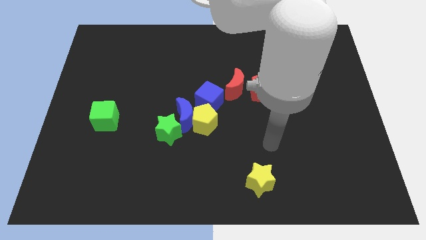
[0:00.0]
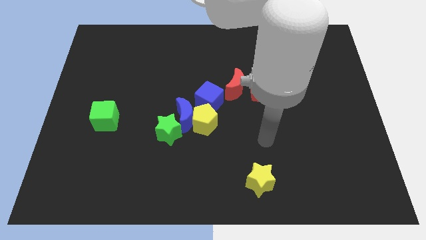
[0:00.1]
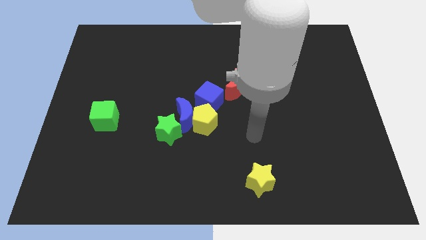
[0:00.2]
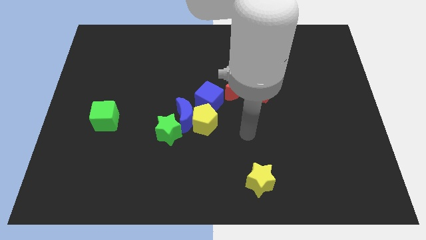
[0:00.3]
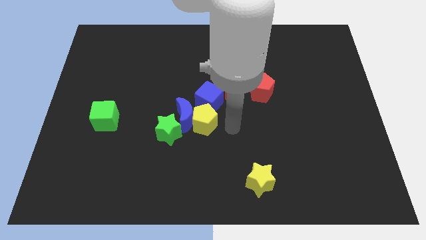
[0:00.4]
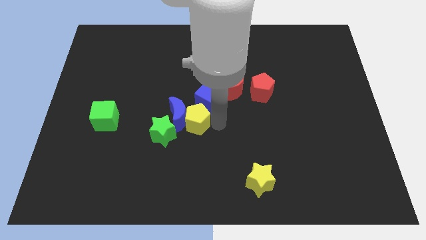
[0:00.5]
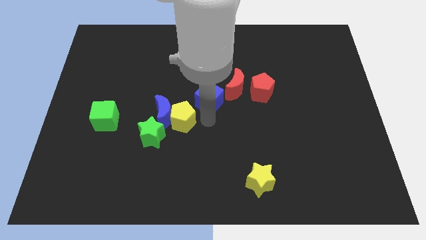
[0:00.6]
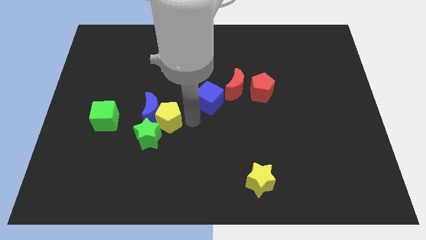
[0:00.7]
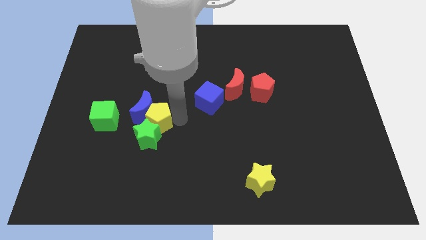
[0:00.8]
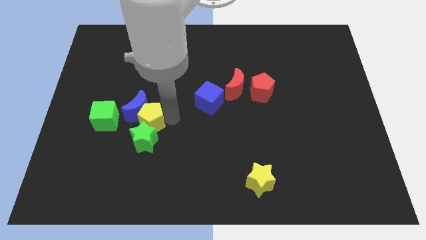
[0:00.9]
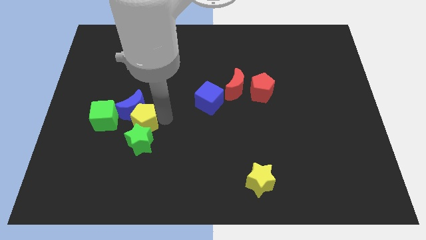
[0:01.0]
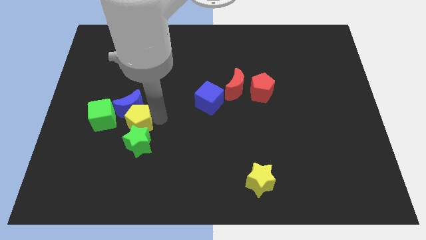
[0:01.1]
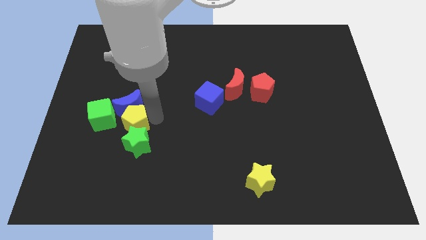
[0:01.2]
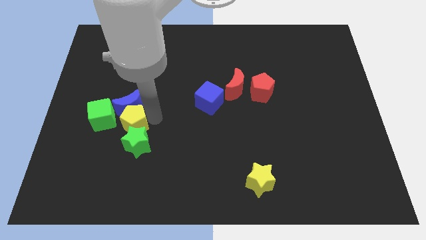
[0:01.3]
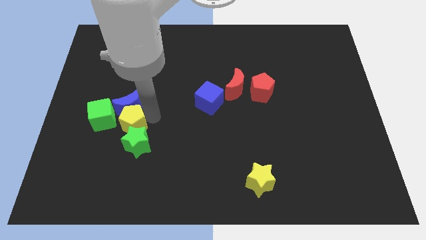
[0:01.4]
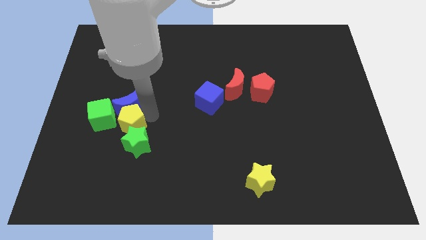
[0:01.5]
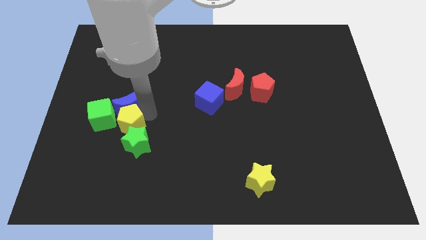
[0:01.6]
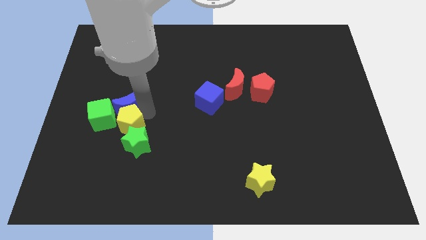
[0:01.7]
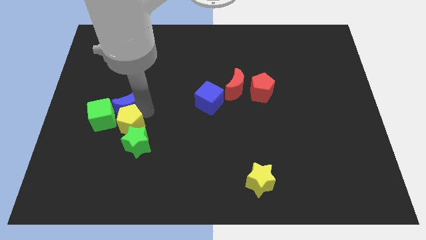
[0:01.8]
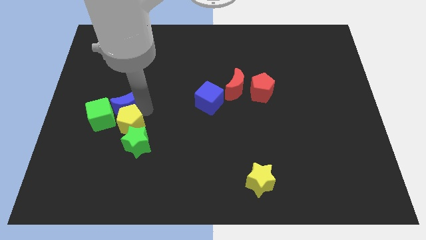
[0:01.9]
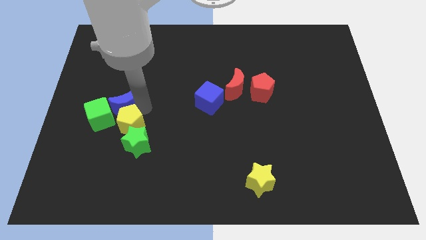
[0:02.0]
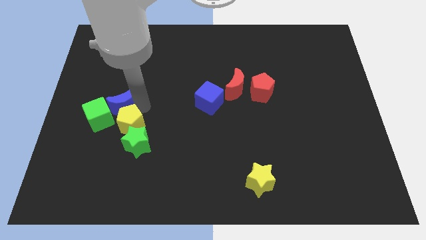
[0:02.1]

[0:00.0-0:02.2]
pull the blue moon apart from the yellow pentagon, green star, and blue cube

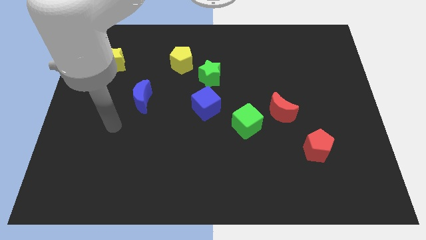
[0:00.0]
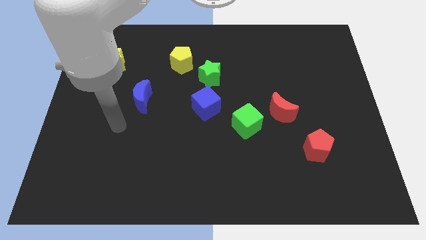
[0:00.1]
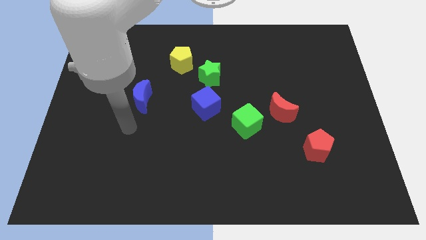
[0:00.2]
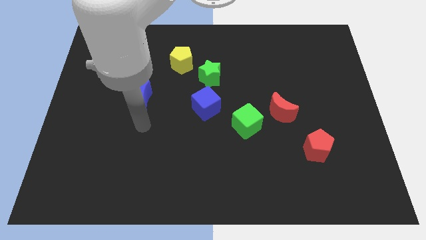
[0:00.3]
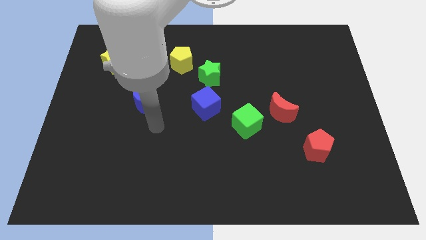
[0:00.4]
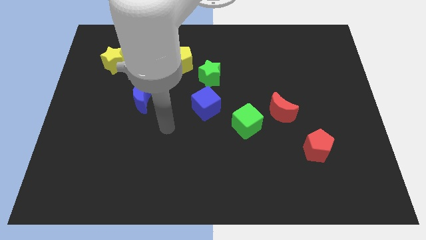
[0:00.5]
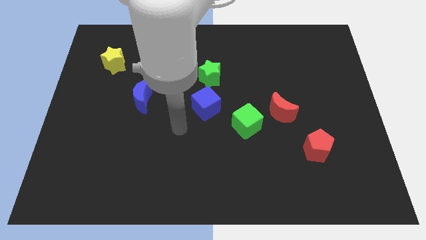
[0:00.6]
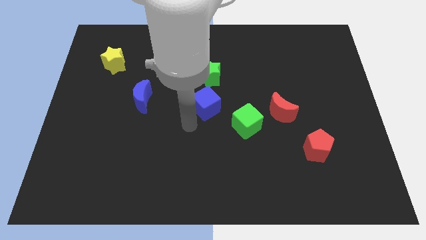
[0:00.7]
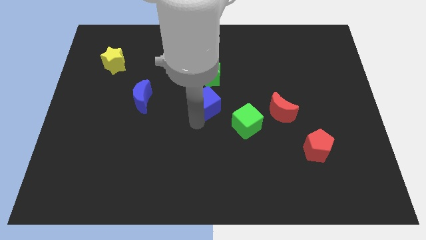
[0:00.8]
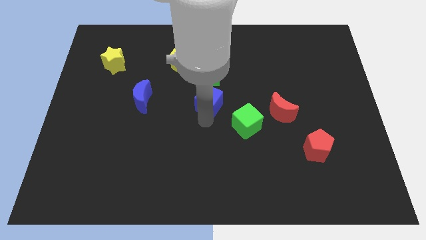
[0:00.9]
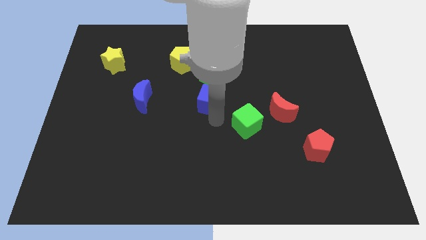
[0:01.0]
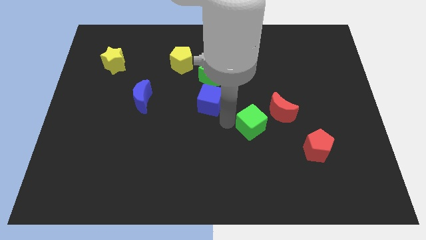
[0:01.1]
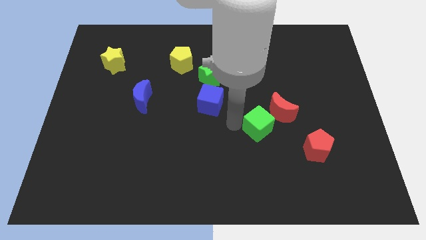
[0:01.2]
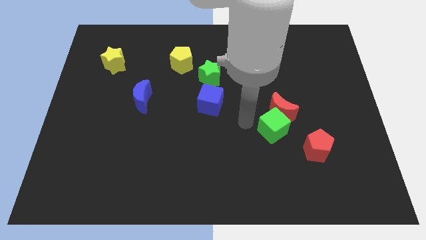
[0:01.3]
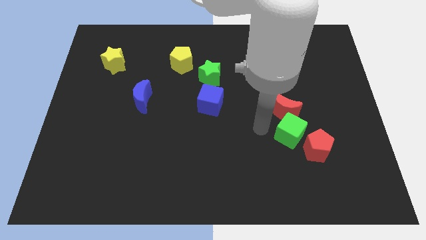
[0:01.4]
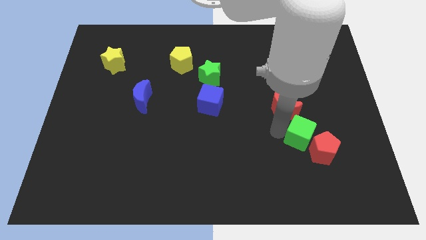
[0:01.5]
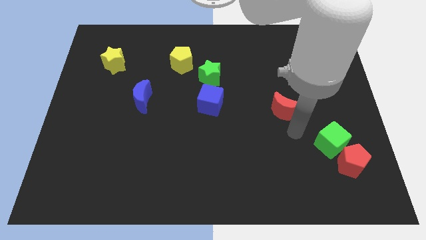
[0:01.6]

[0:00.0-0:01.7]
separate the red moon from the green cube

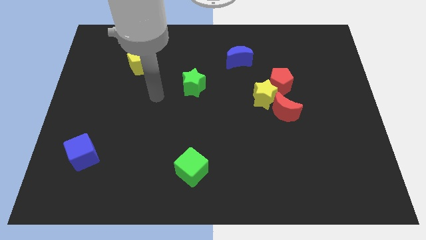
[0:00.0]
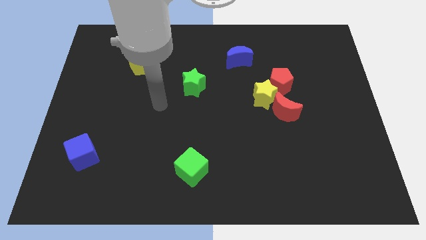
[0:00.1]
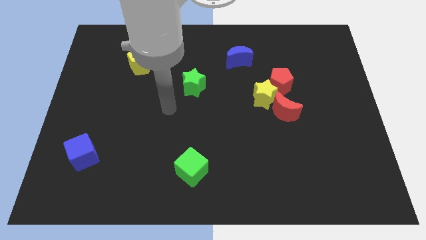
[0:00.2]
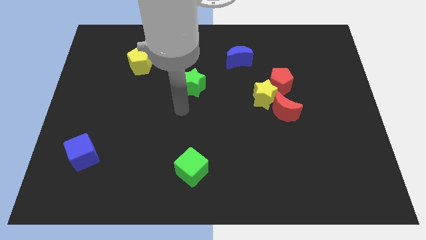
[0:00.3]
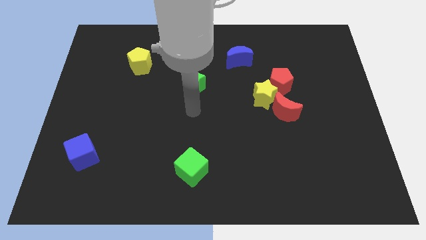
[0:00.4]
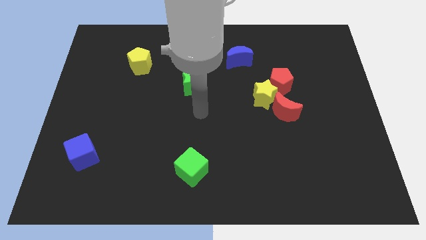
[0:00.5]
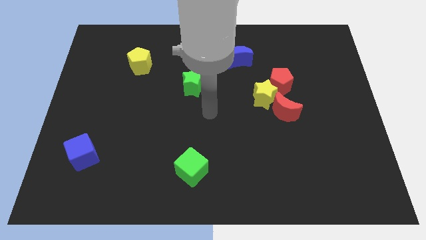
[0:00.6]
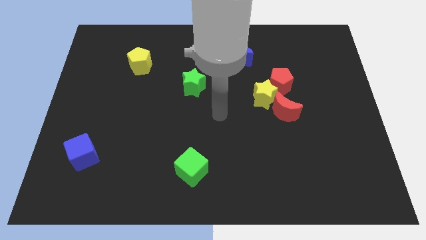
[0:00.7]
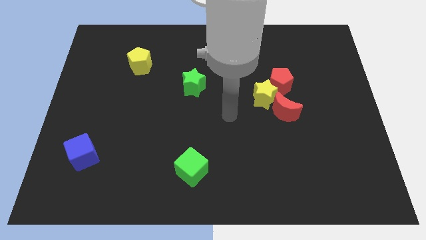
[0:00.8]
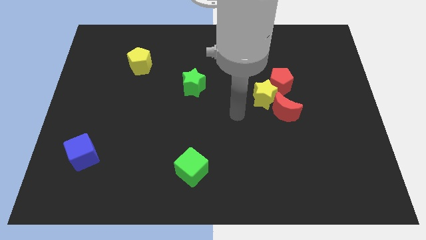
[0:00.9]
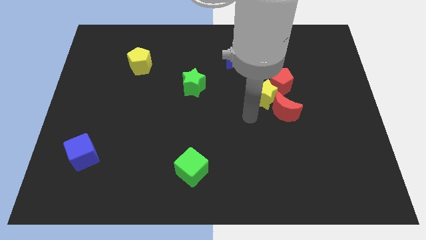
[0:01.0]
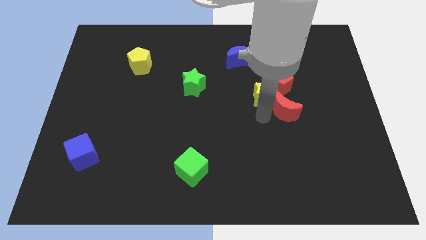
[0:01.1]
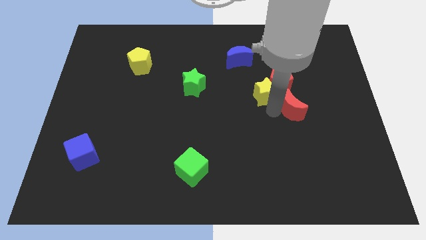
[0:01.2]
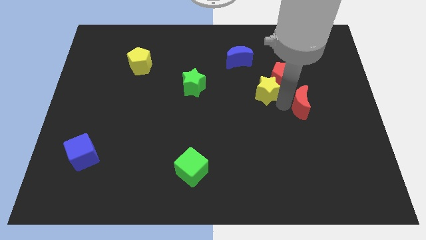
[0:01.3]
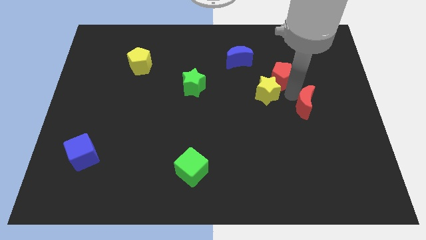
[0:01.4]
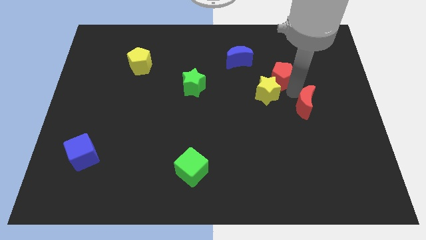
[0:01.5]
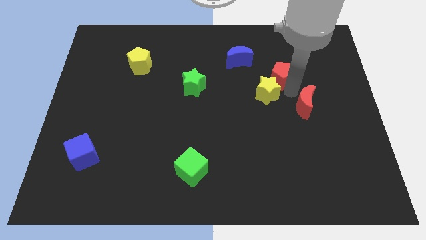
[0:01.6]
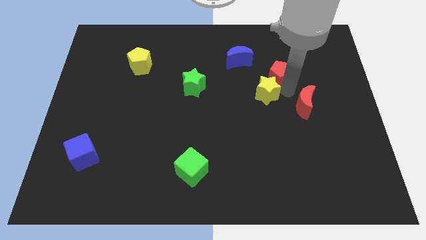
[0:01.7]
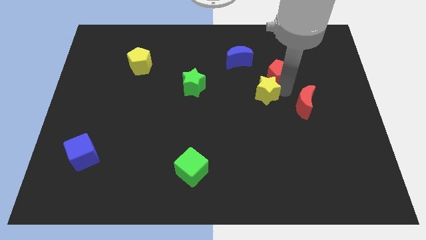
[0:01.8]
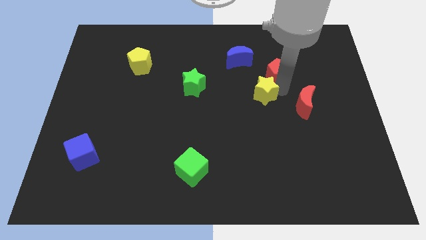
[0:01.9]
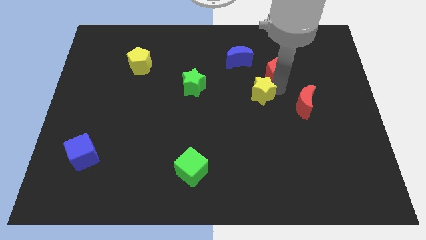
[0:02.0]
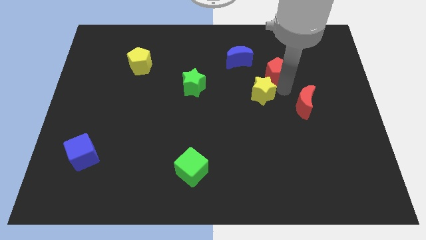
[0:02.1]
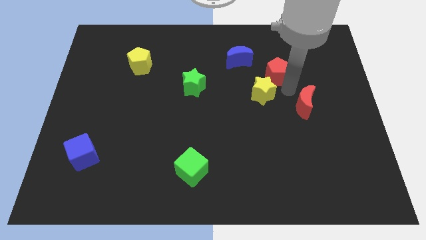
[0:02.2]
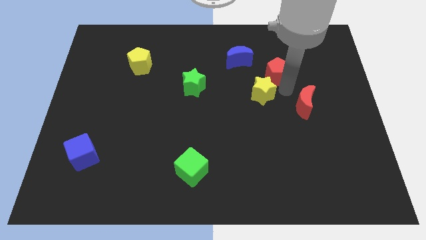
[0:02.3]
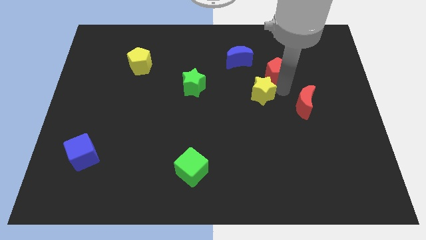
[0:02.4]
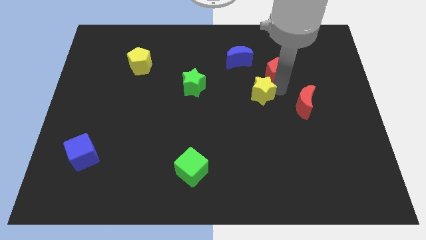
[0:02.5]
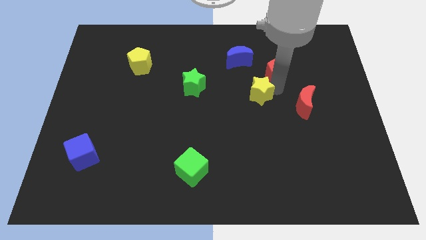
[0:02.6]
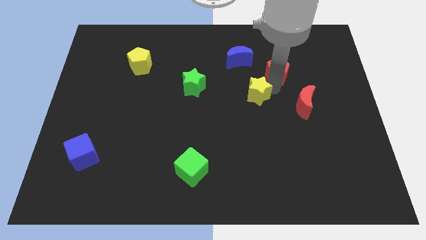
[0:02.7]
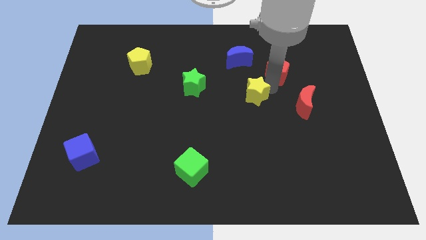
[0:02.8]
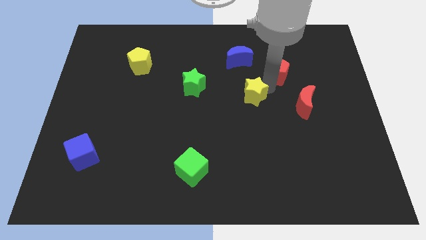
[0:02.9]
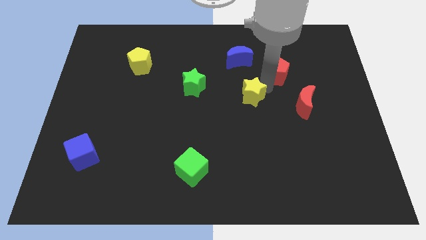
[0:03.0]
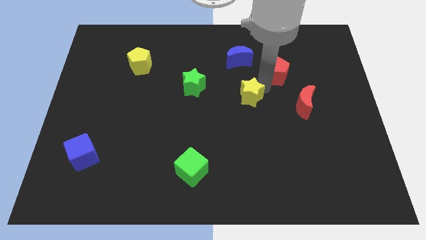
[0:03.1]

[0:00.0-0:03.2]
separate the yellow star from the red pentagon and red moon

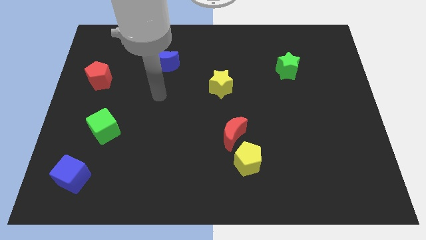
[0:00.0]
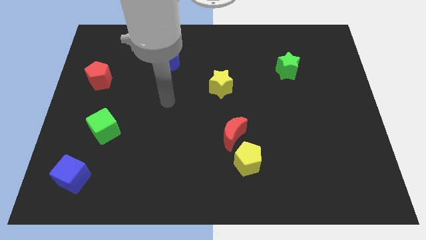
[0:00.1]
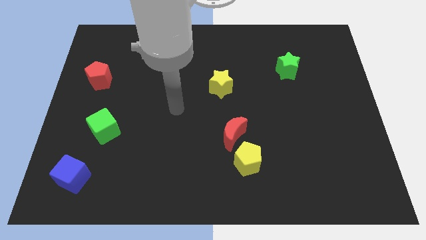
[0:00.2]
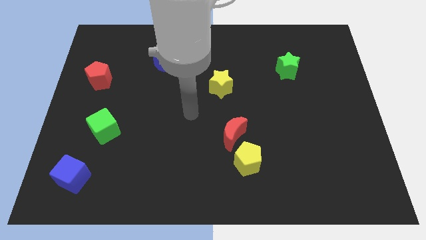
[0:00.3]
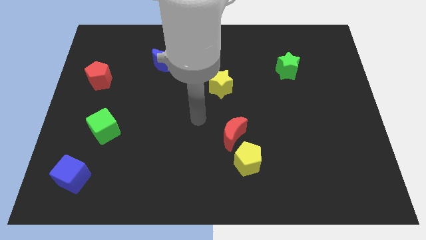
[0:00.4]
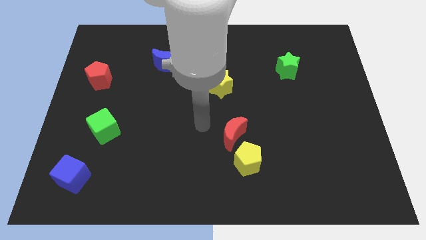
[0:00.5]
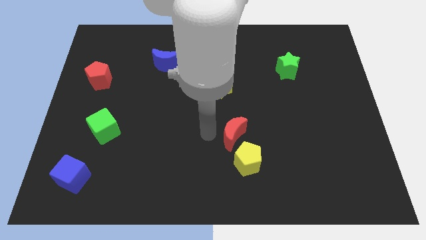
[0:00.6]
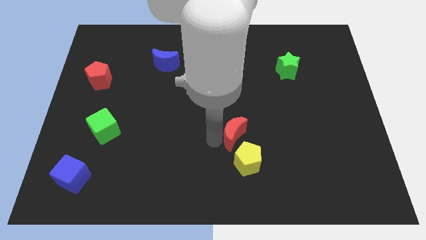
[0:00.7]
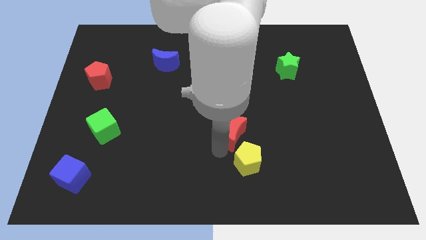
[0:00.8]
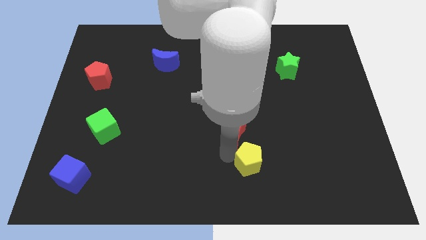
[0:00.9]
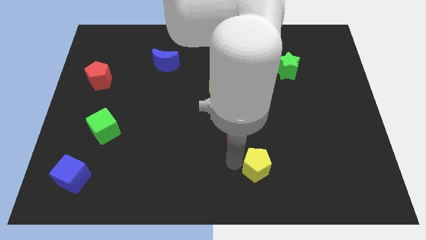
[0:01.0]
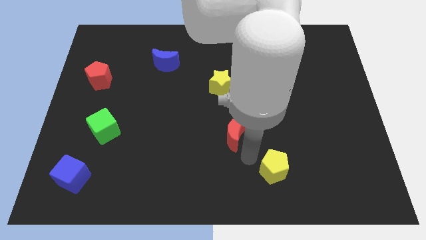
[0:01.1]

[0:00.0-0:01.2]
move the red moon away from the yellow pentagon

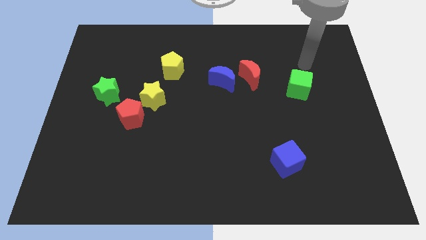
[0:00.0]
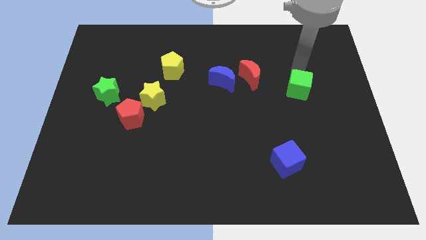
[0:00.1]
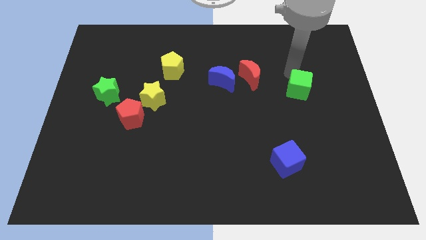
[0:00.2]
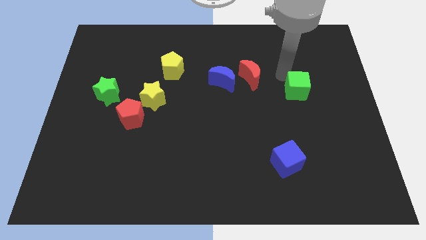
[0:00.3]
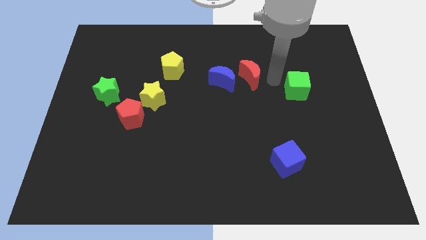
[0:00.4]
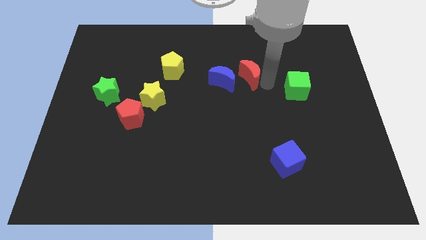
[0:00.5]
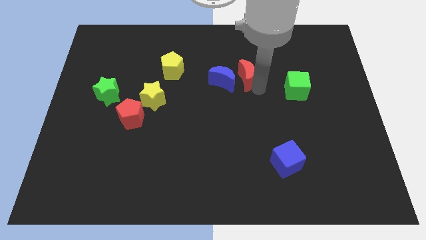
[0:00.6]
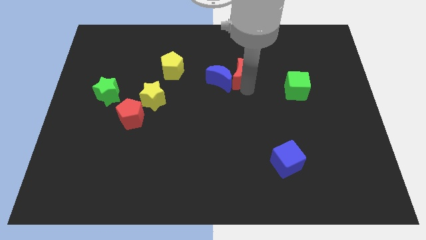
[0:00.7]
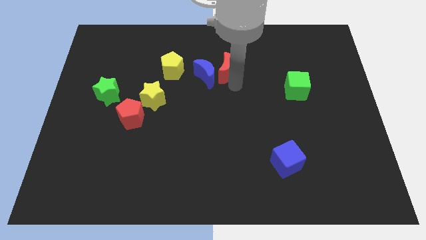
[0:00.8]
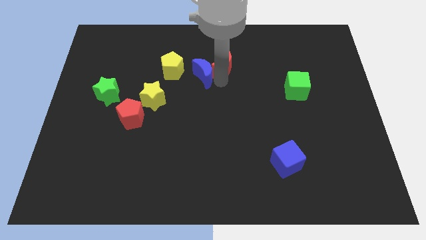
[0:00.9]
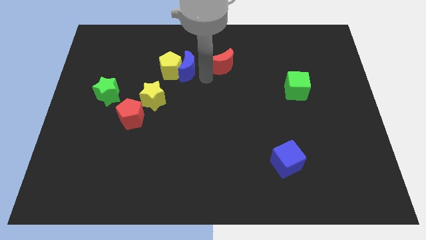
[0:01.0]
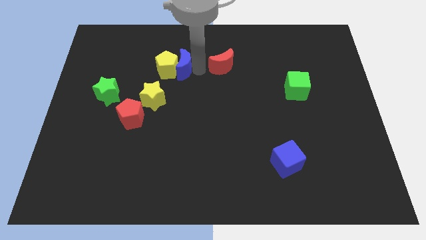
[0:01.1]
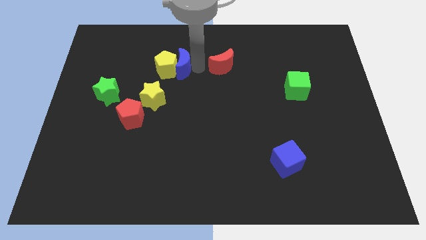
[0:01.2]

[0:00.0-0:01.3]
move the red moon away from the blue moon
